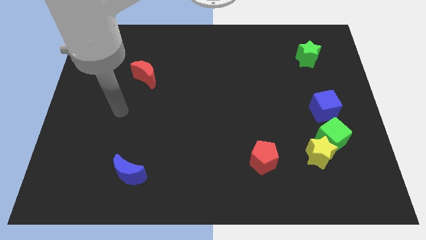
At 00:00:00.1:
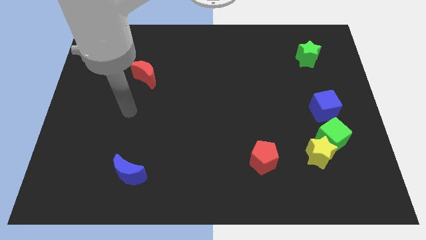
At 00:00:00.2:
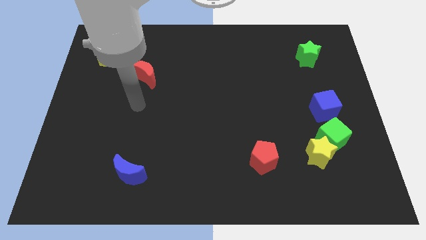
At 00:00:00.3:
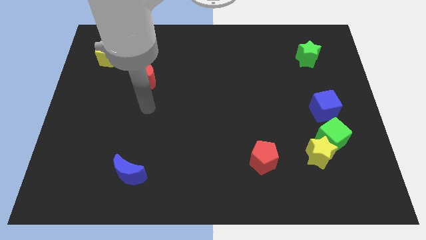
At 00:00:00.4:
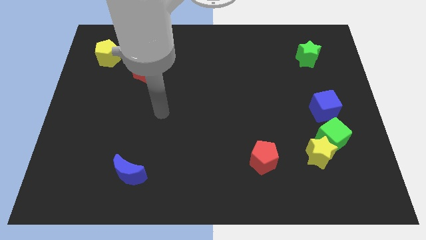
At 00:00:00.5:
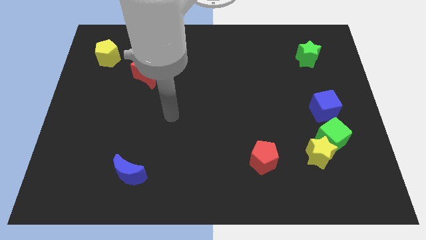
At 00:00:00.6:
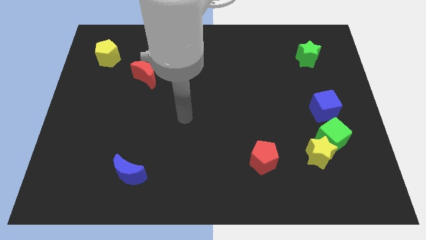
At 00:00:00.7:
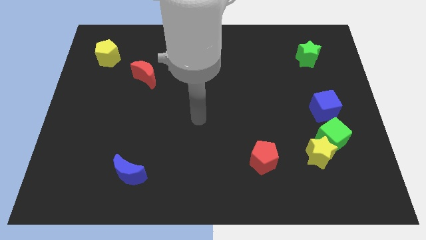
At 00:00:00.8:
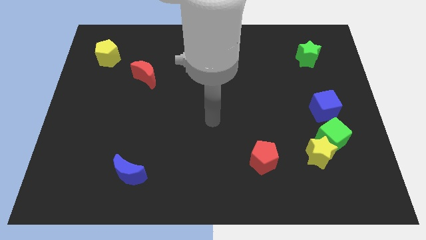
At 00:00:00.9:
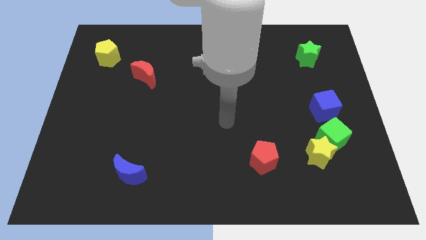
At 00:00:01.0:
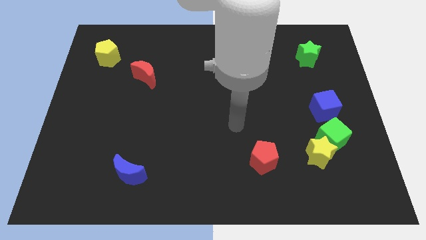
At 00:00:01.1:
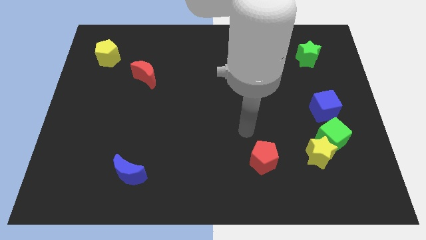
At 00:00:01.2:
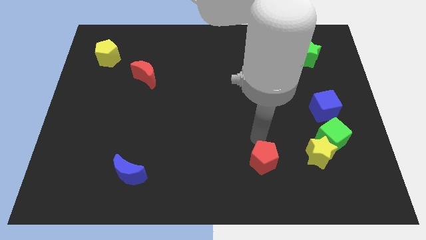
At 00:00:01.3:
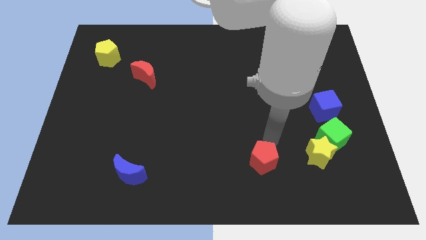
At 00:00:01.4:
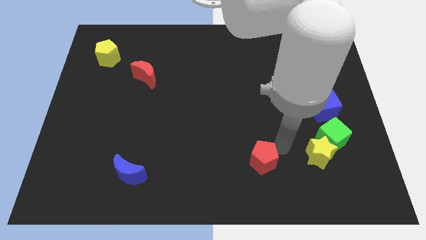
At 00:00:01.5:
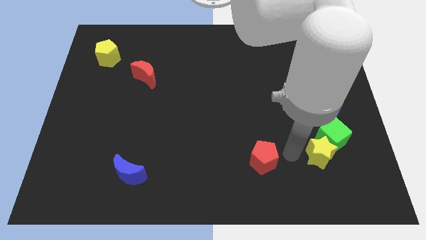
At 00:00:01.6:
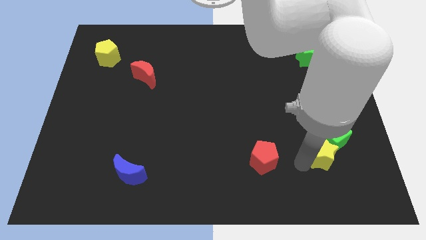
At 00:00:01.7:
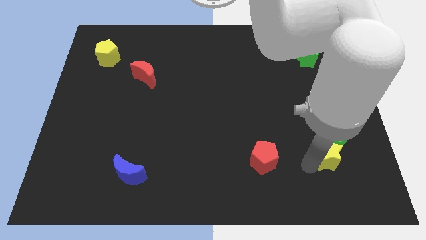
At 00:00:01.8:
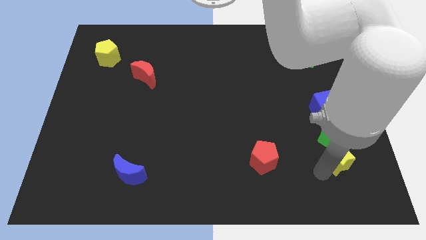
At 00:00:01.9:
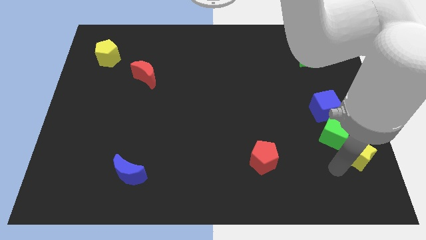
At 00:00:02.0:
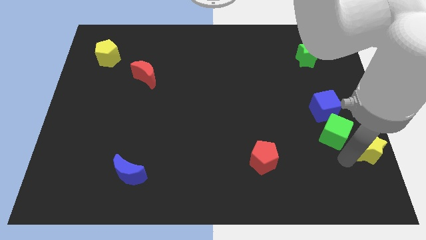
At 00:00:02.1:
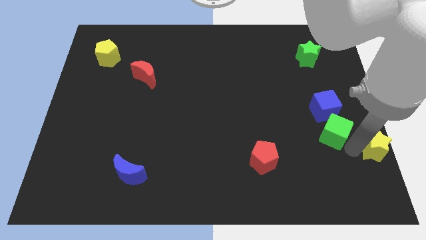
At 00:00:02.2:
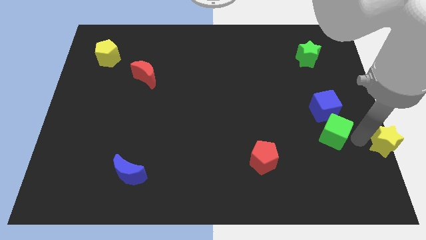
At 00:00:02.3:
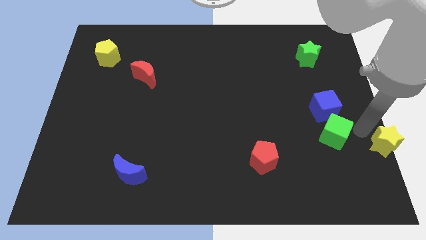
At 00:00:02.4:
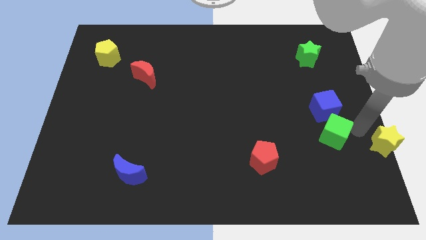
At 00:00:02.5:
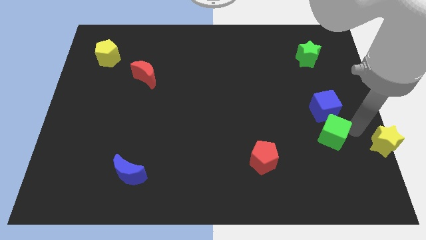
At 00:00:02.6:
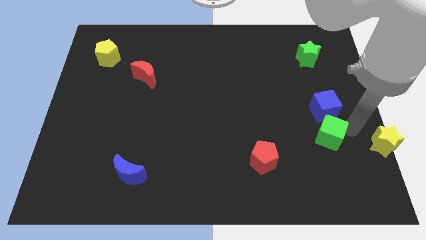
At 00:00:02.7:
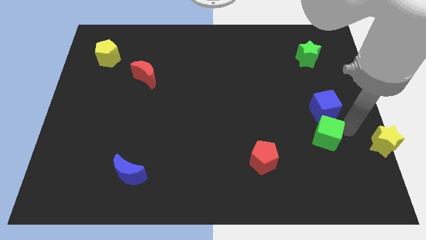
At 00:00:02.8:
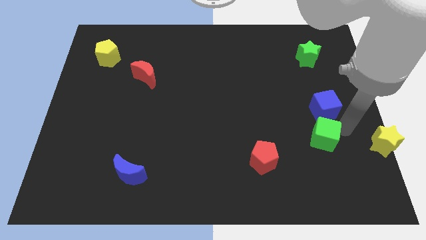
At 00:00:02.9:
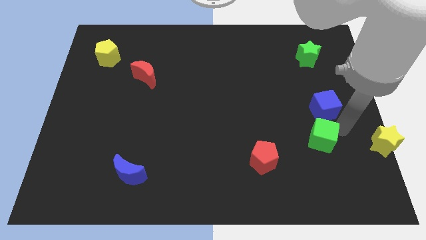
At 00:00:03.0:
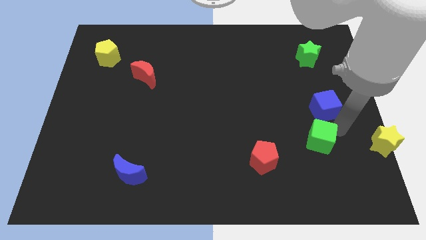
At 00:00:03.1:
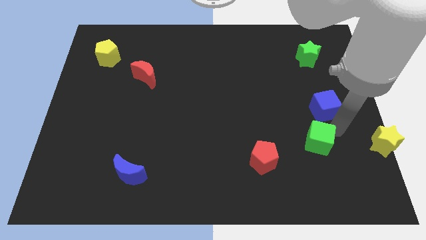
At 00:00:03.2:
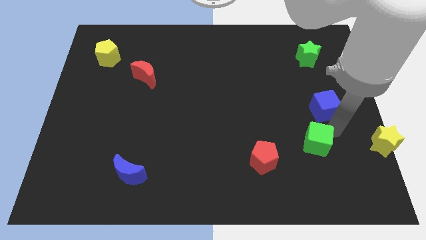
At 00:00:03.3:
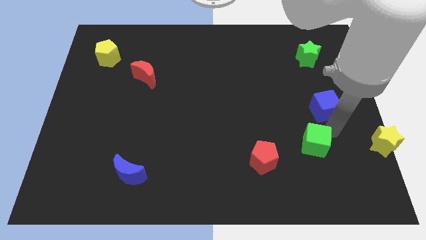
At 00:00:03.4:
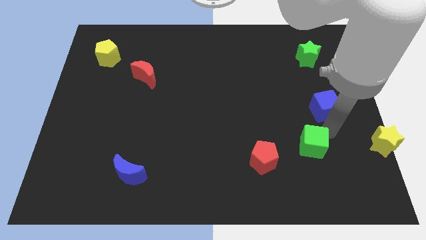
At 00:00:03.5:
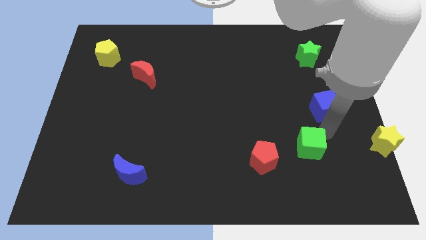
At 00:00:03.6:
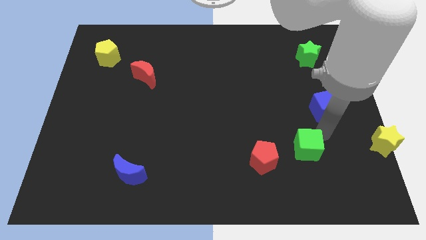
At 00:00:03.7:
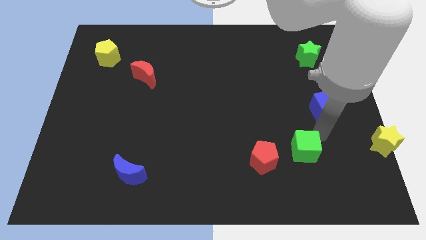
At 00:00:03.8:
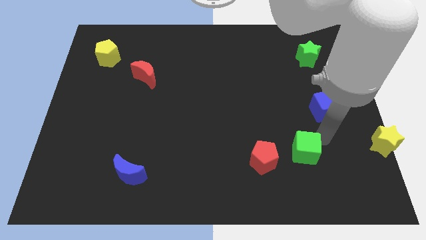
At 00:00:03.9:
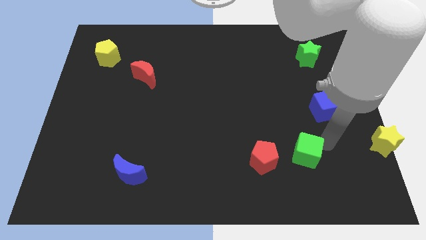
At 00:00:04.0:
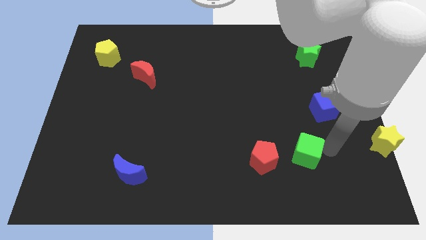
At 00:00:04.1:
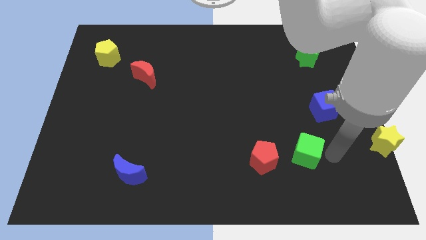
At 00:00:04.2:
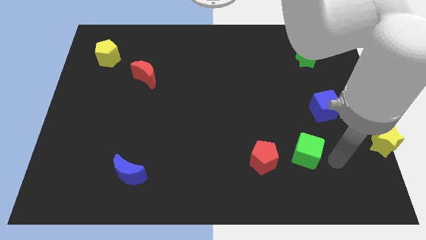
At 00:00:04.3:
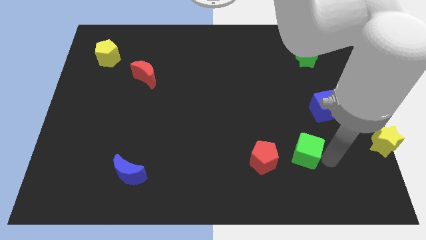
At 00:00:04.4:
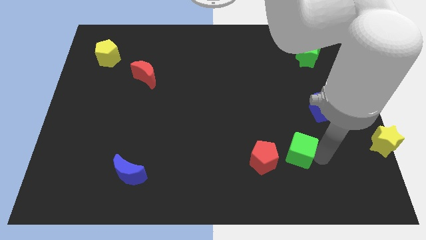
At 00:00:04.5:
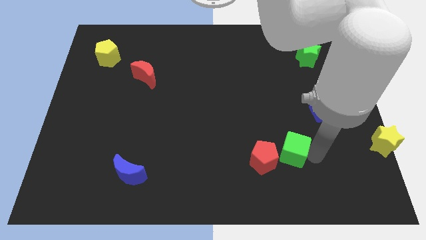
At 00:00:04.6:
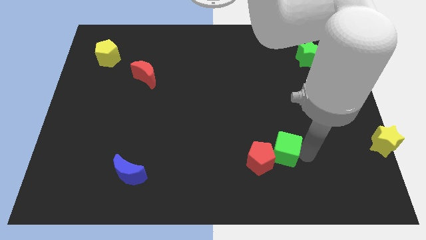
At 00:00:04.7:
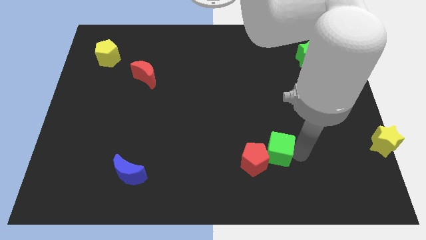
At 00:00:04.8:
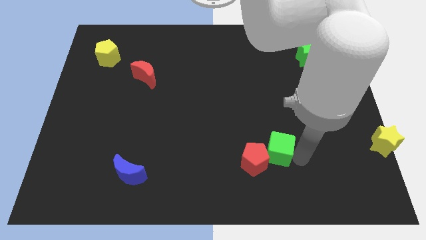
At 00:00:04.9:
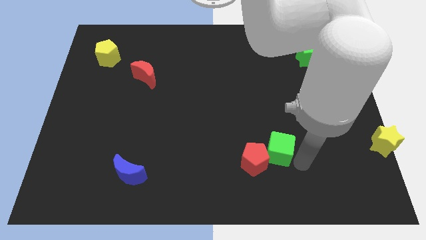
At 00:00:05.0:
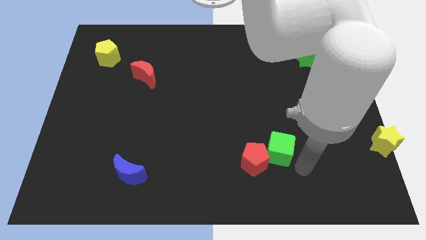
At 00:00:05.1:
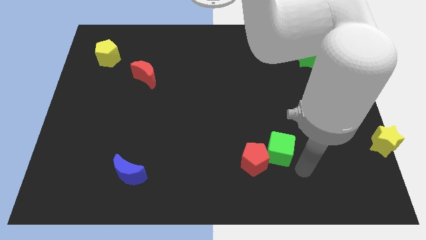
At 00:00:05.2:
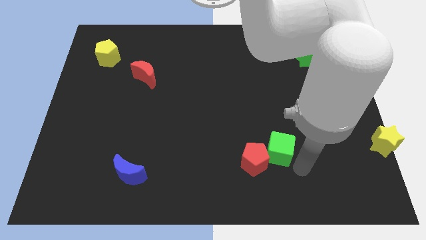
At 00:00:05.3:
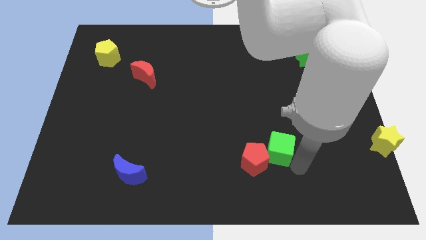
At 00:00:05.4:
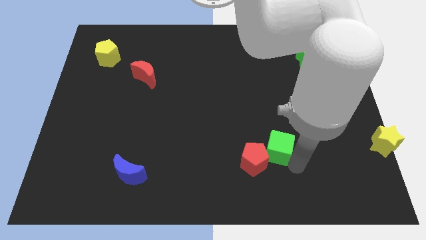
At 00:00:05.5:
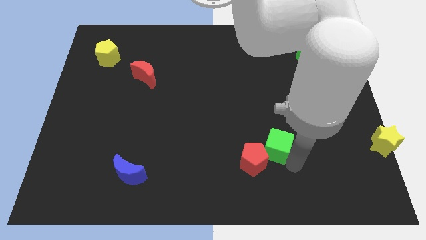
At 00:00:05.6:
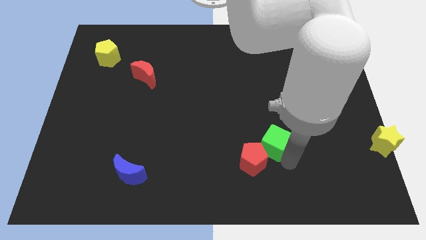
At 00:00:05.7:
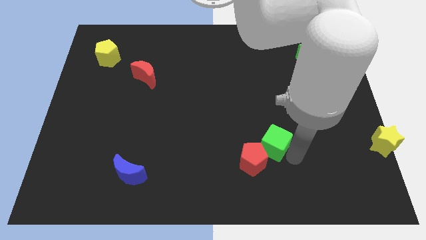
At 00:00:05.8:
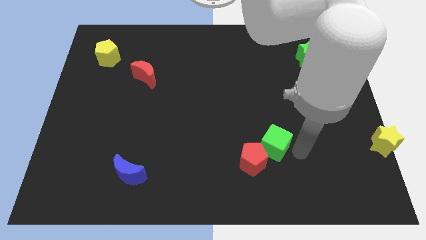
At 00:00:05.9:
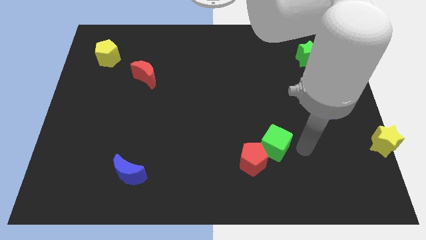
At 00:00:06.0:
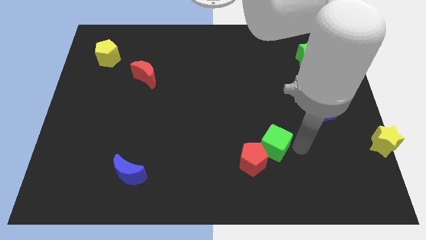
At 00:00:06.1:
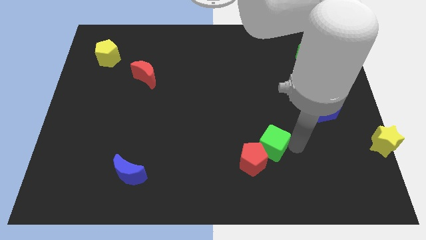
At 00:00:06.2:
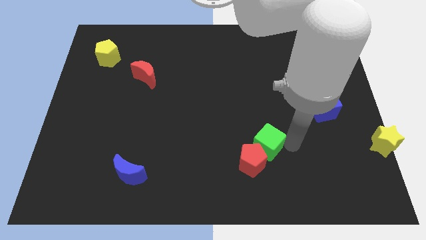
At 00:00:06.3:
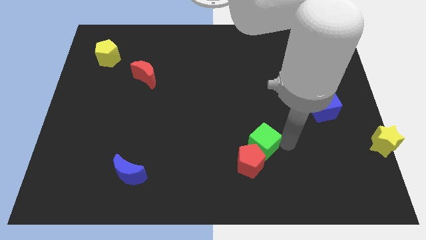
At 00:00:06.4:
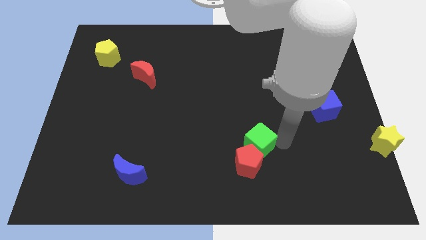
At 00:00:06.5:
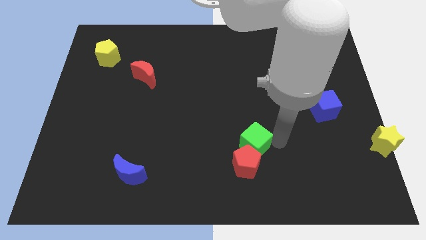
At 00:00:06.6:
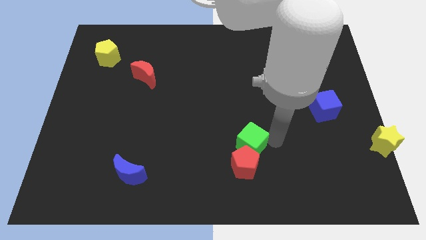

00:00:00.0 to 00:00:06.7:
push the green cube to the top left of the red pentagon
